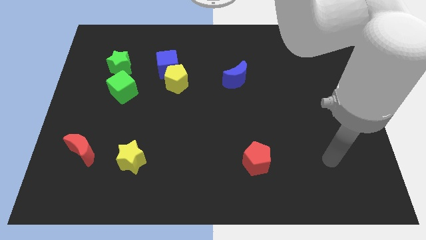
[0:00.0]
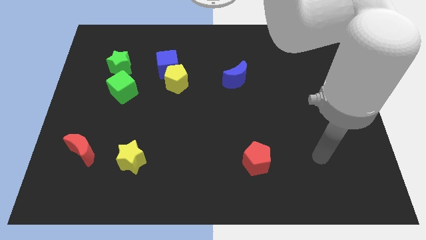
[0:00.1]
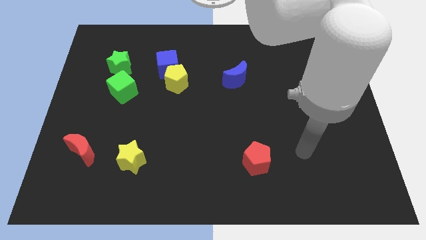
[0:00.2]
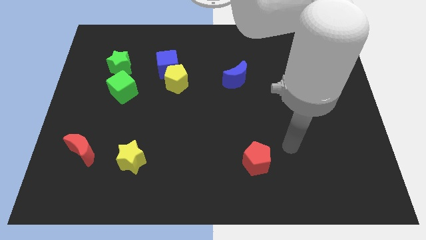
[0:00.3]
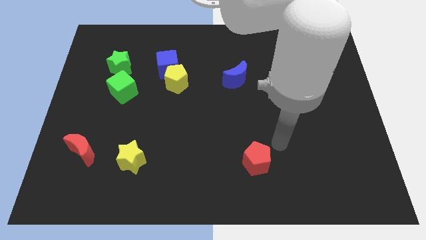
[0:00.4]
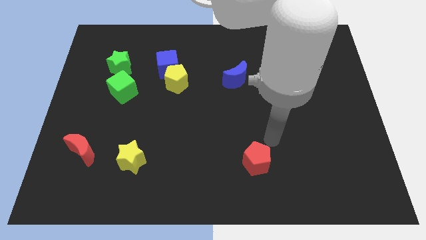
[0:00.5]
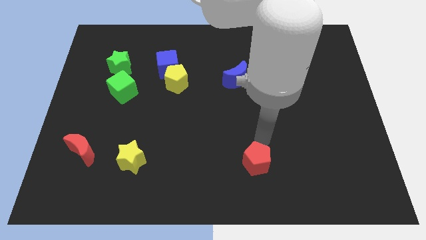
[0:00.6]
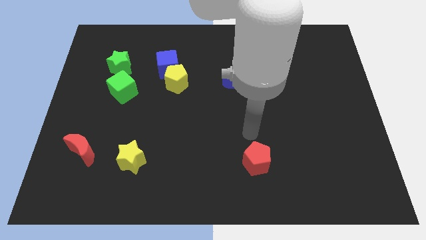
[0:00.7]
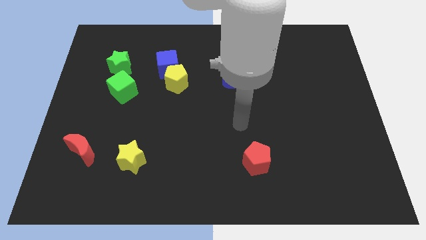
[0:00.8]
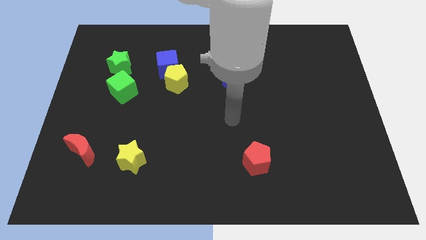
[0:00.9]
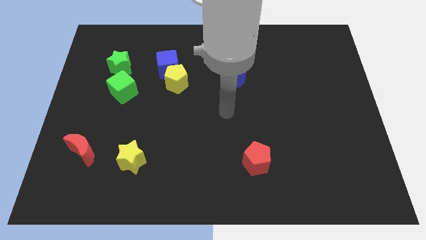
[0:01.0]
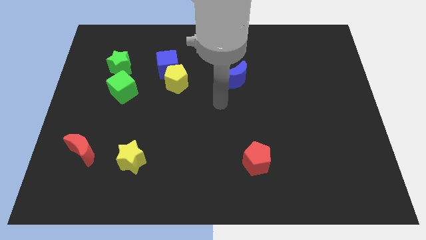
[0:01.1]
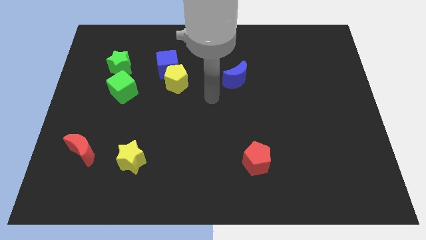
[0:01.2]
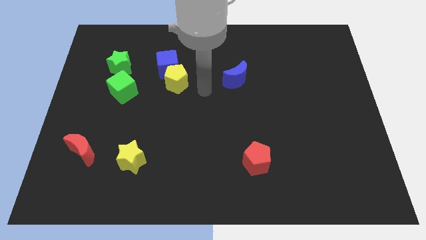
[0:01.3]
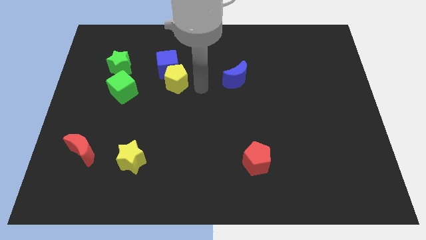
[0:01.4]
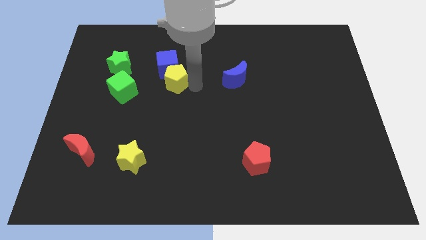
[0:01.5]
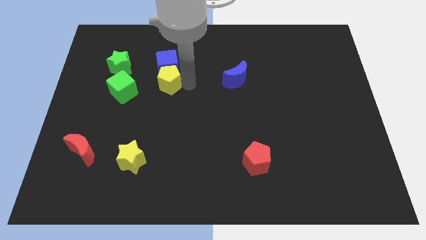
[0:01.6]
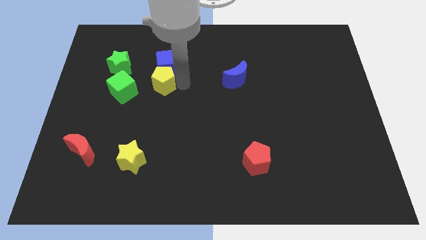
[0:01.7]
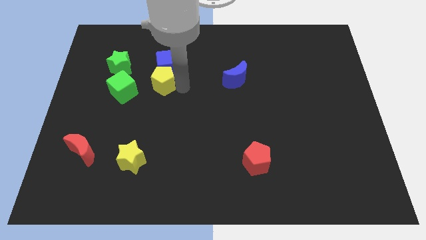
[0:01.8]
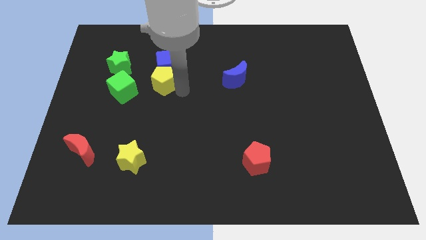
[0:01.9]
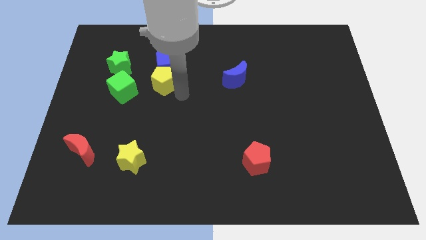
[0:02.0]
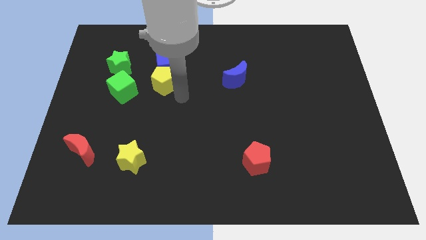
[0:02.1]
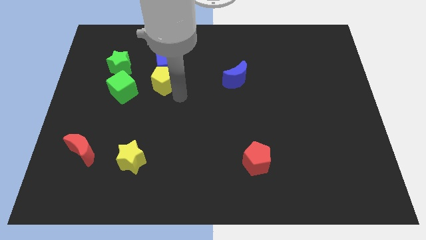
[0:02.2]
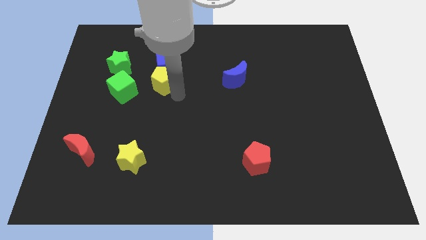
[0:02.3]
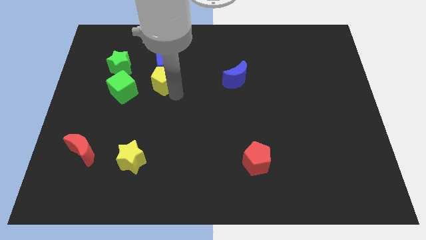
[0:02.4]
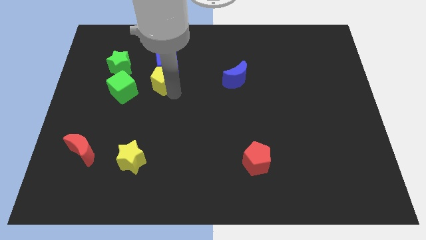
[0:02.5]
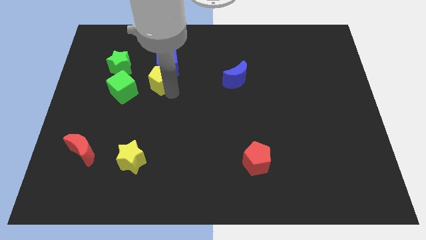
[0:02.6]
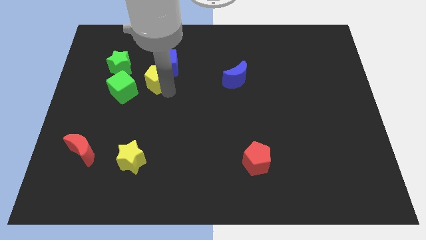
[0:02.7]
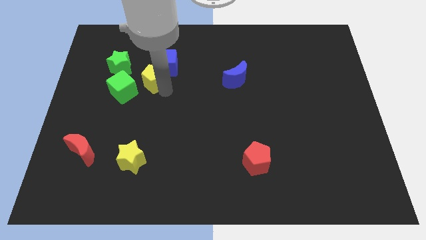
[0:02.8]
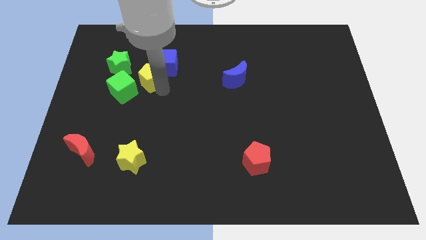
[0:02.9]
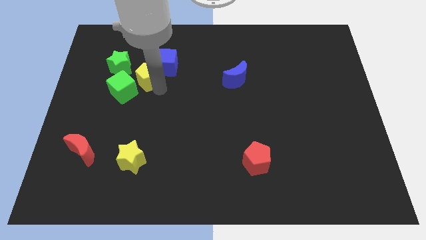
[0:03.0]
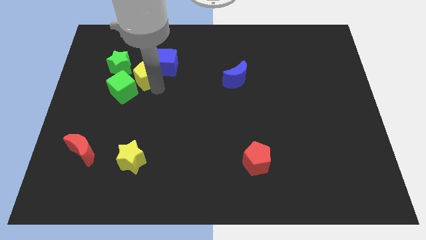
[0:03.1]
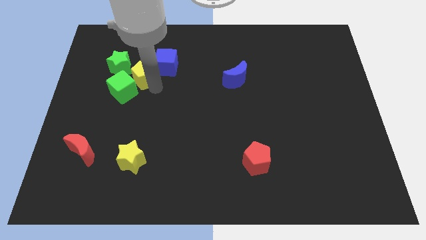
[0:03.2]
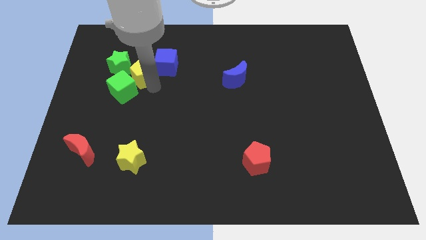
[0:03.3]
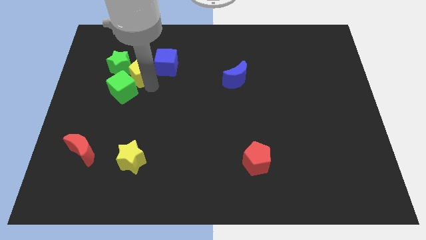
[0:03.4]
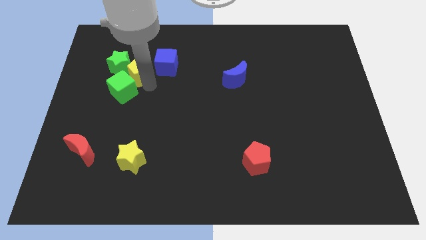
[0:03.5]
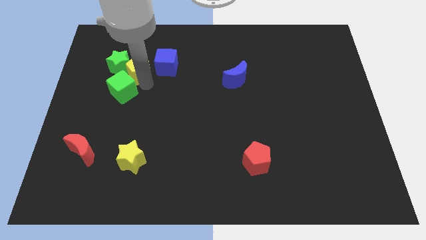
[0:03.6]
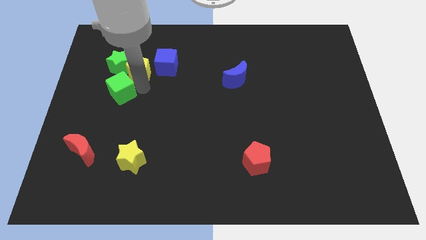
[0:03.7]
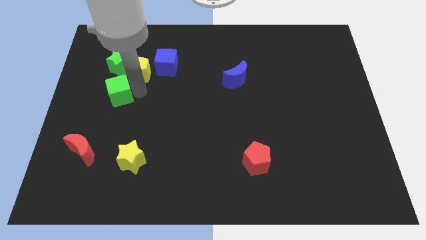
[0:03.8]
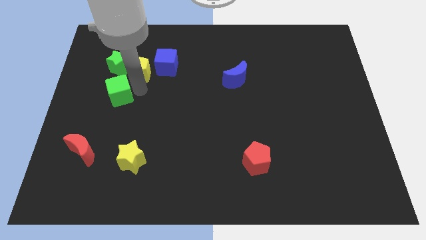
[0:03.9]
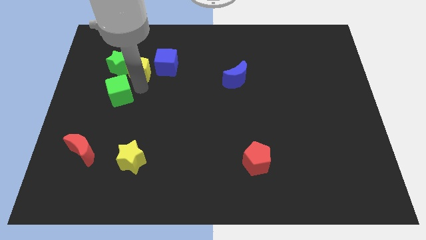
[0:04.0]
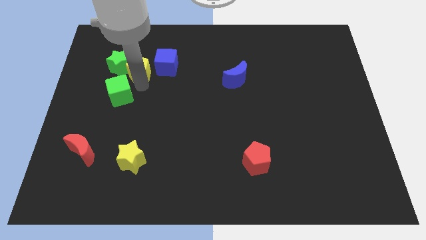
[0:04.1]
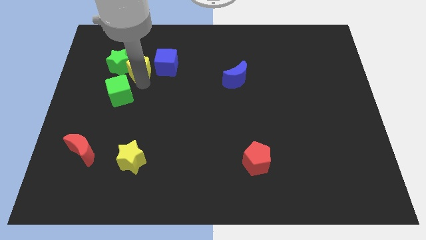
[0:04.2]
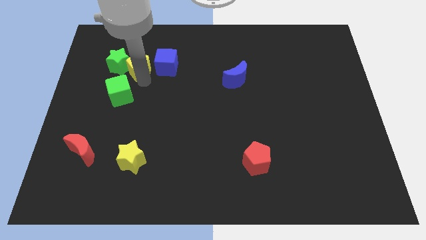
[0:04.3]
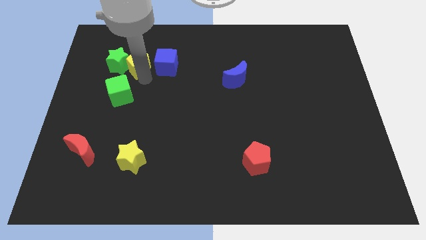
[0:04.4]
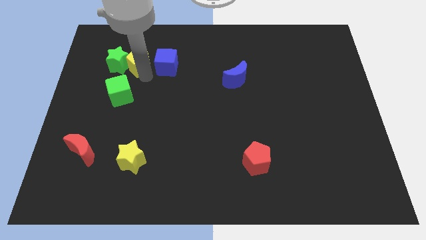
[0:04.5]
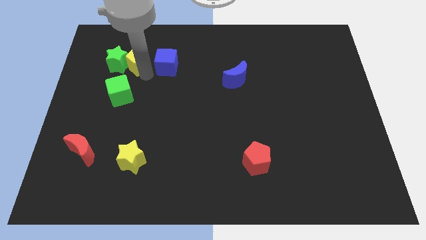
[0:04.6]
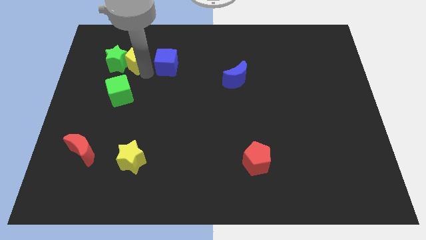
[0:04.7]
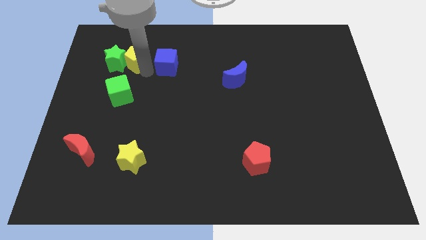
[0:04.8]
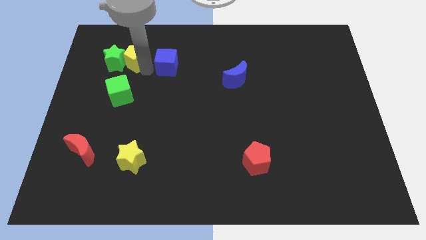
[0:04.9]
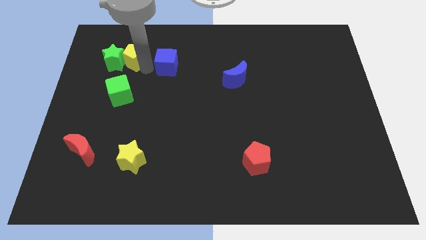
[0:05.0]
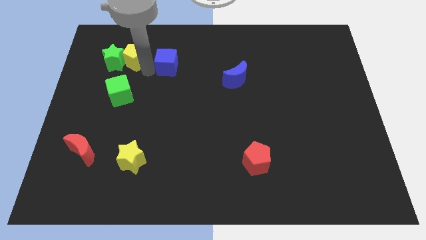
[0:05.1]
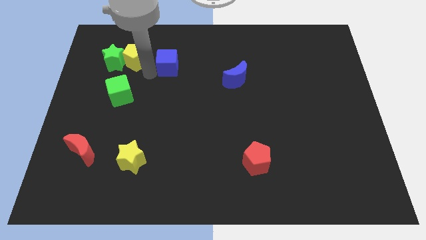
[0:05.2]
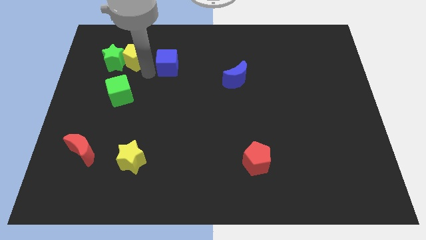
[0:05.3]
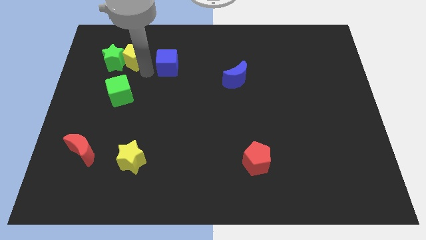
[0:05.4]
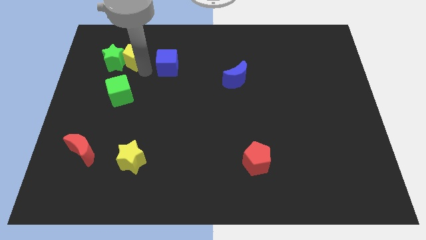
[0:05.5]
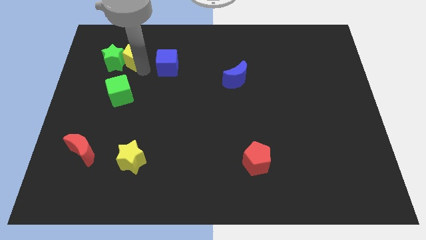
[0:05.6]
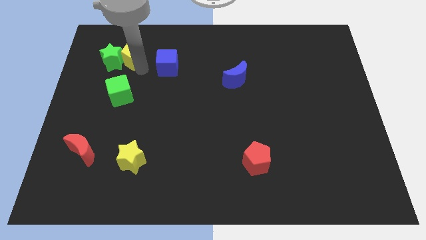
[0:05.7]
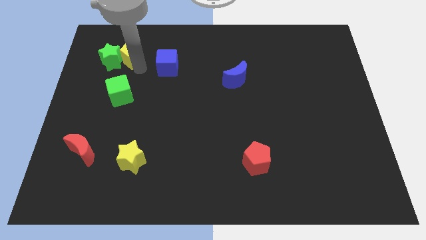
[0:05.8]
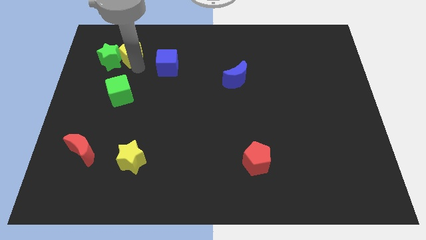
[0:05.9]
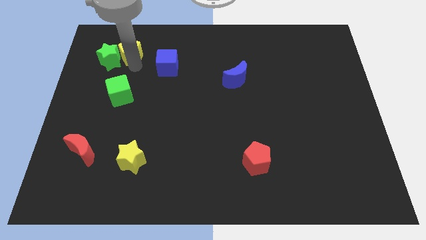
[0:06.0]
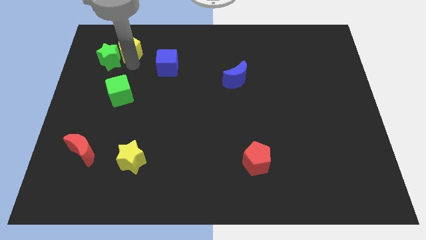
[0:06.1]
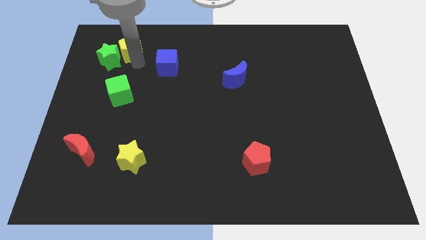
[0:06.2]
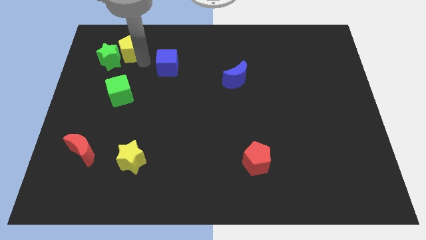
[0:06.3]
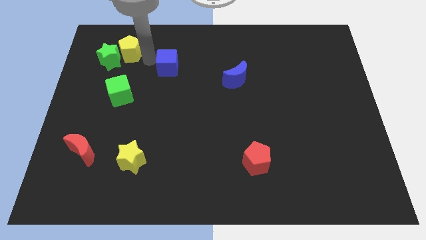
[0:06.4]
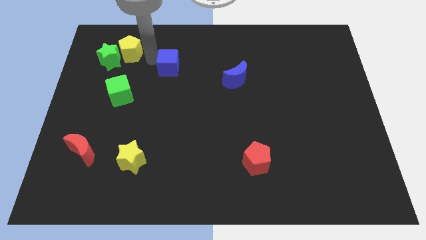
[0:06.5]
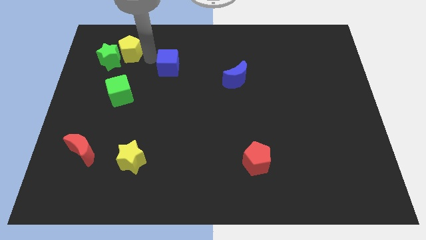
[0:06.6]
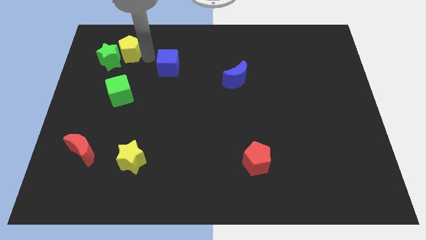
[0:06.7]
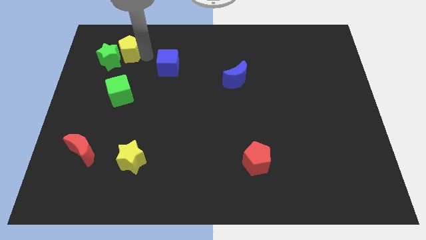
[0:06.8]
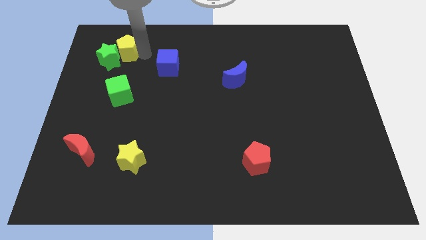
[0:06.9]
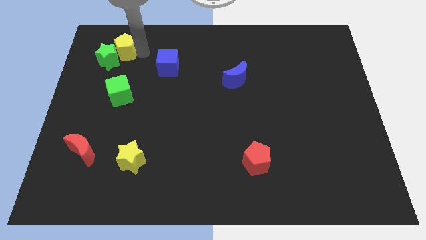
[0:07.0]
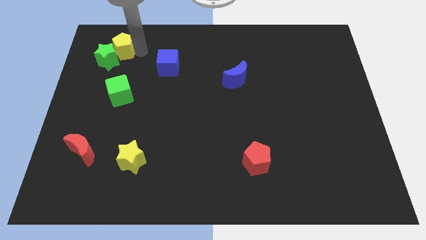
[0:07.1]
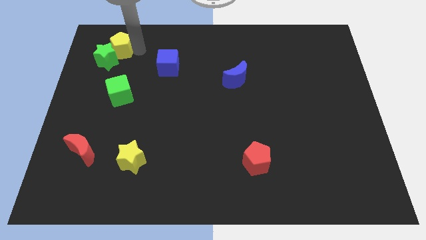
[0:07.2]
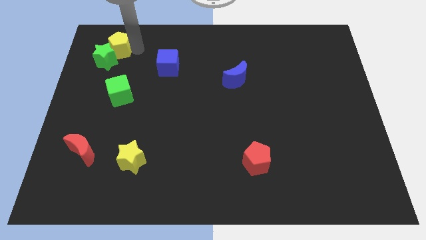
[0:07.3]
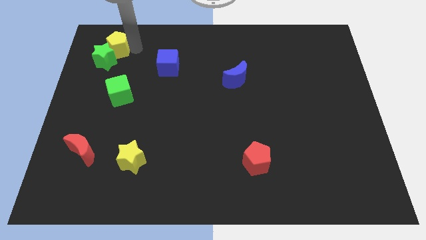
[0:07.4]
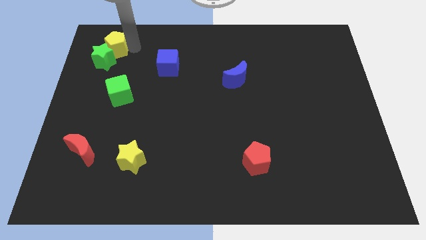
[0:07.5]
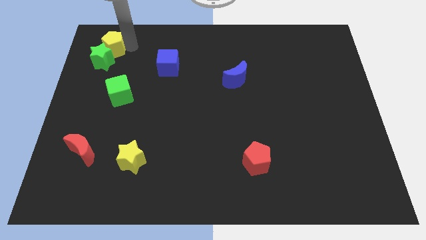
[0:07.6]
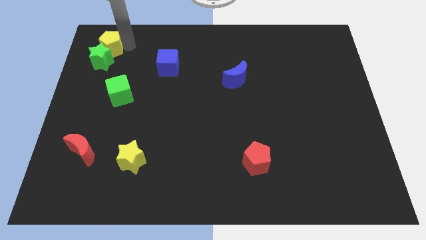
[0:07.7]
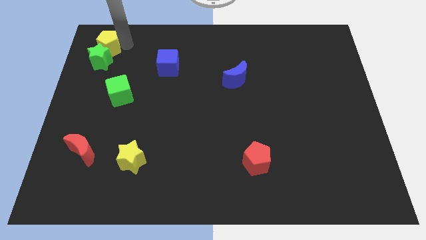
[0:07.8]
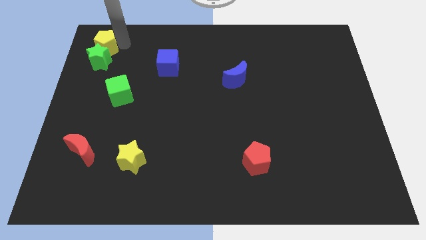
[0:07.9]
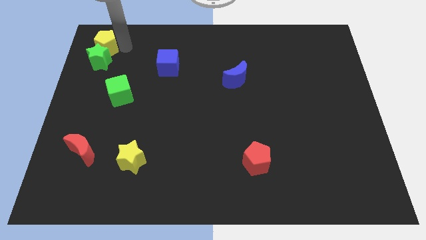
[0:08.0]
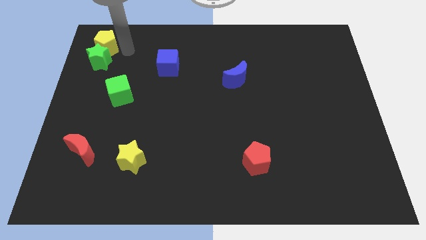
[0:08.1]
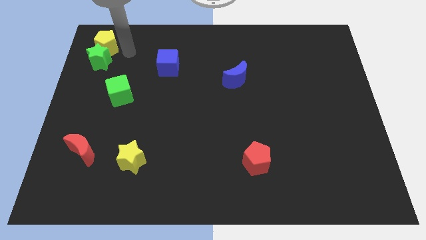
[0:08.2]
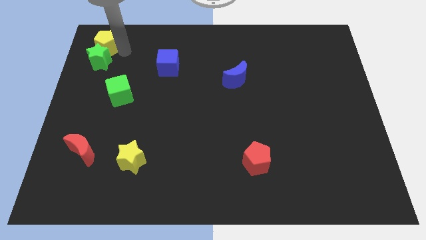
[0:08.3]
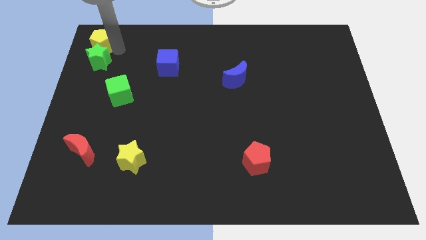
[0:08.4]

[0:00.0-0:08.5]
push the yellow pentagon to the top left
